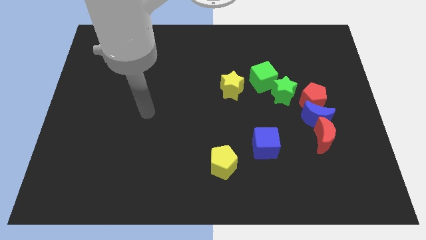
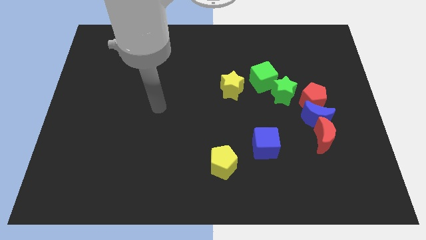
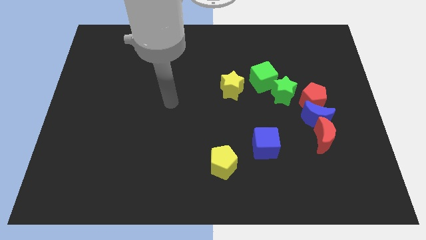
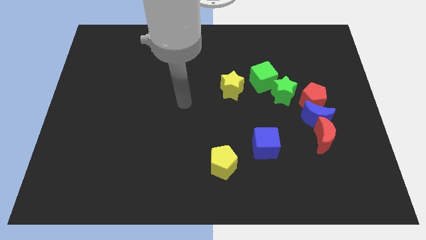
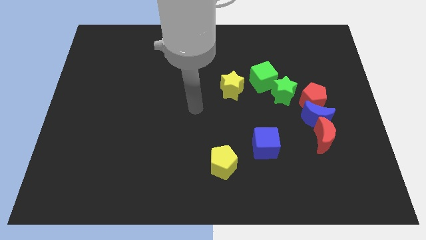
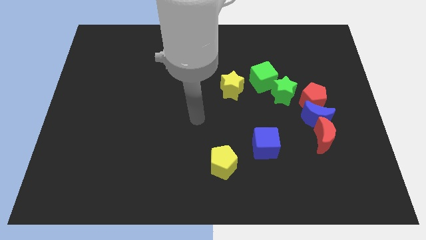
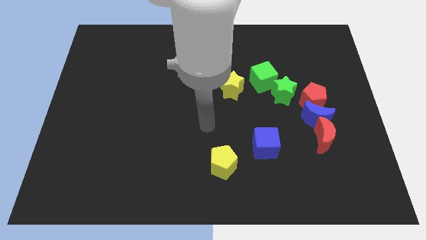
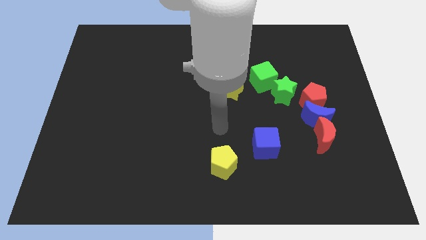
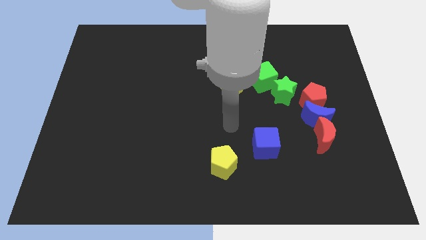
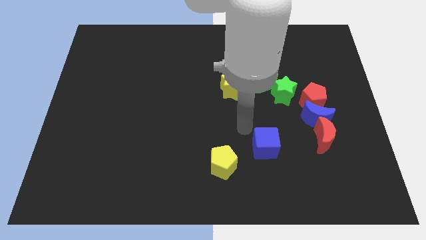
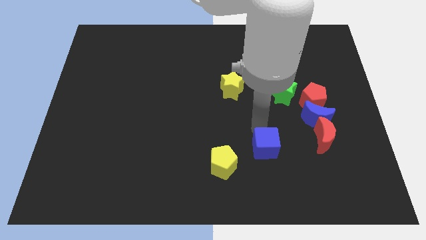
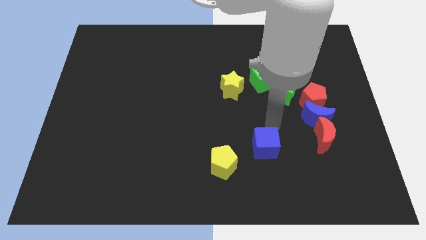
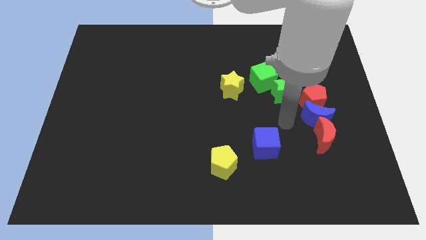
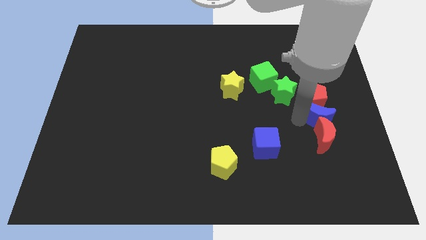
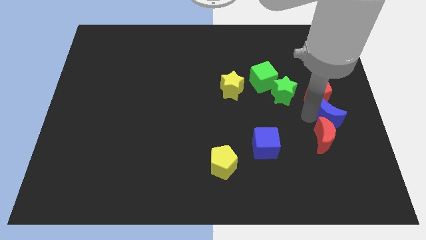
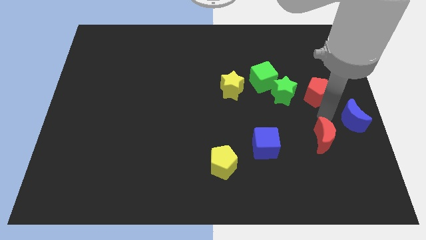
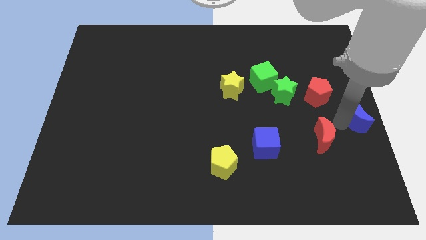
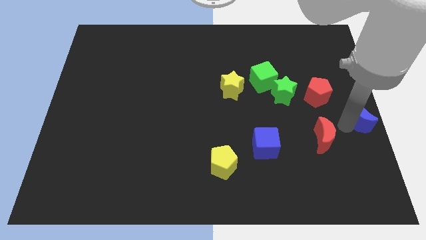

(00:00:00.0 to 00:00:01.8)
separate the red moon from the blue moon

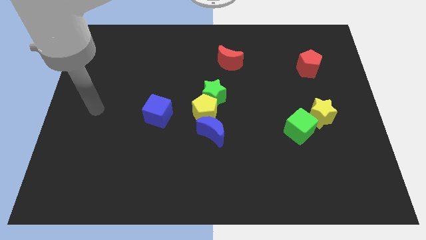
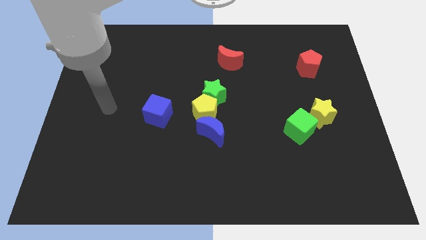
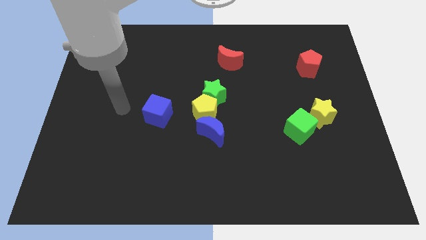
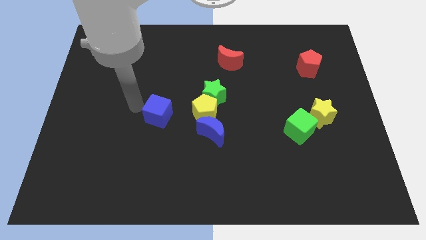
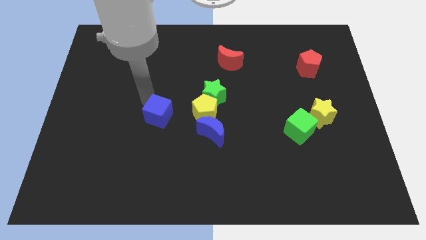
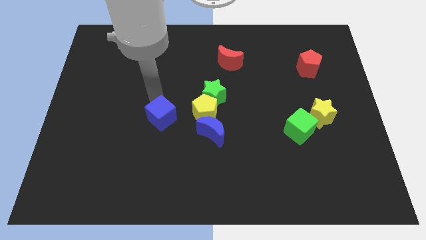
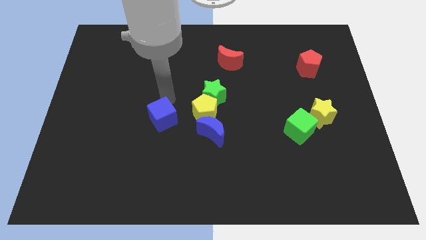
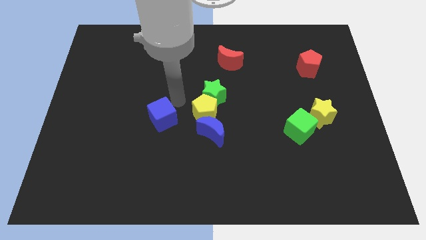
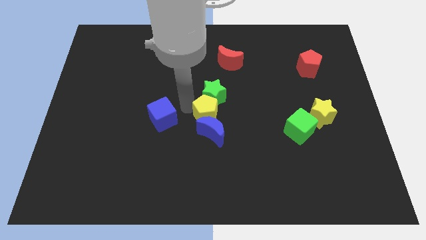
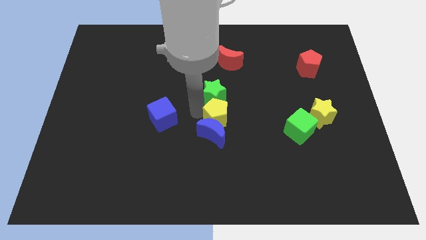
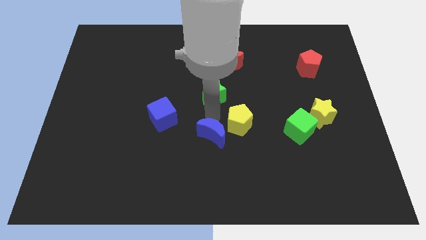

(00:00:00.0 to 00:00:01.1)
move the green star away from the yellow pentagon

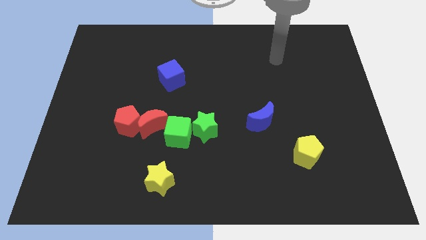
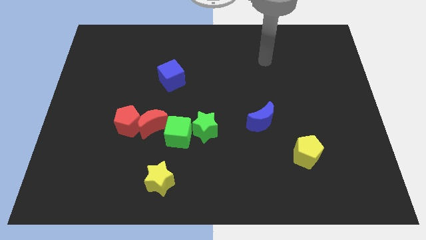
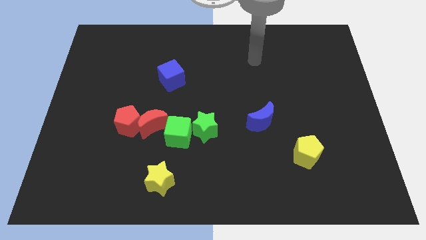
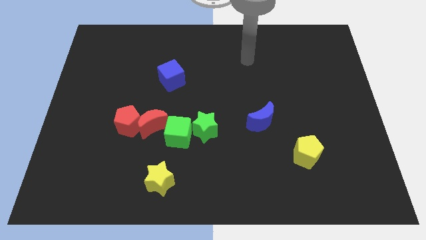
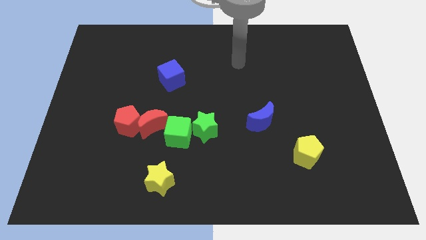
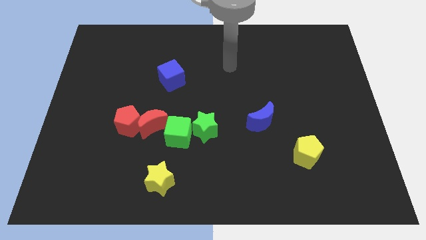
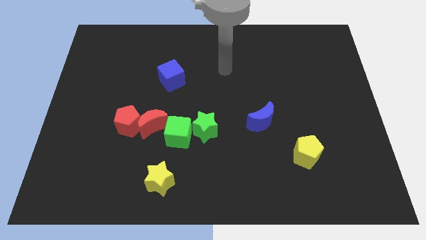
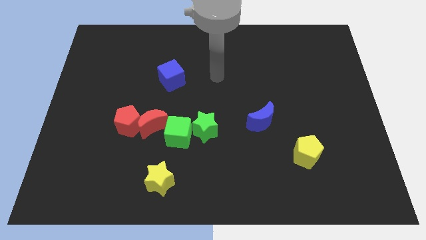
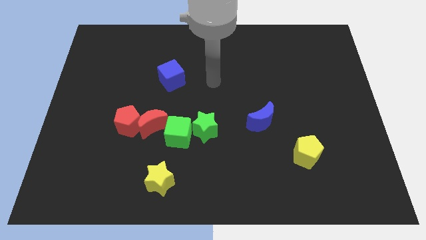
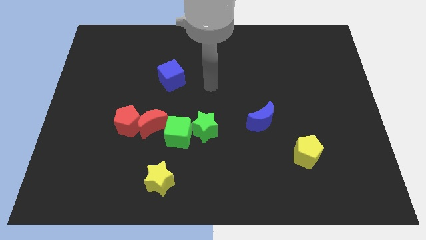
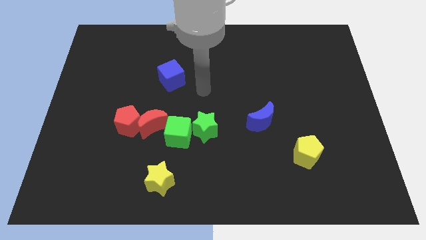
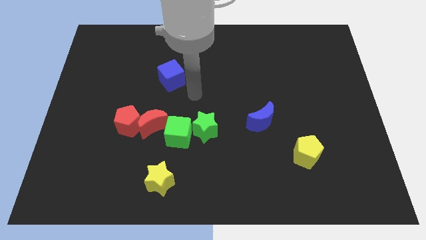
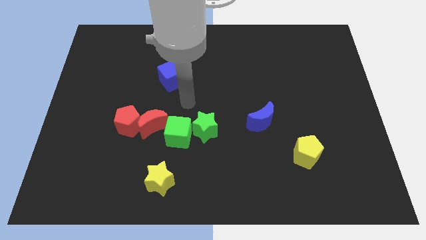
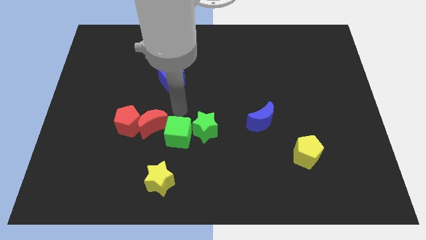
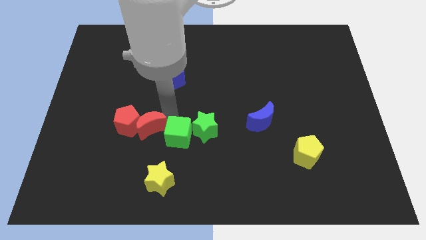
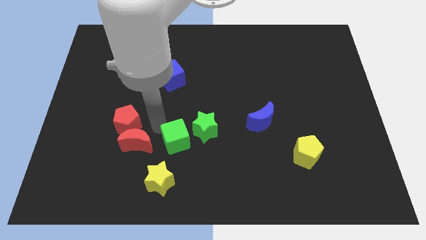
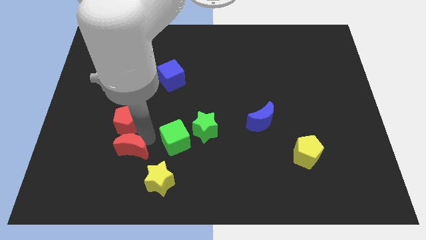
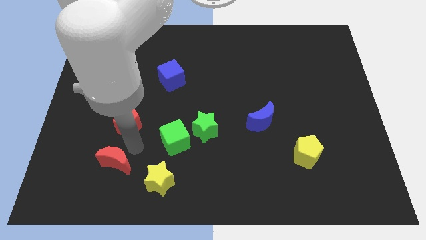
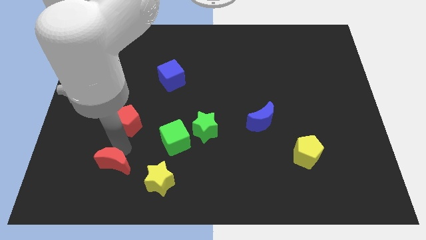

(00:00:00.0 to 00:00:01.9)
separate the red pentagon from the red moon

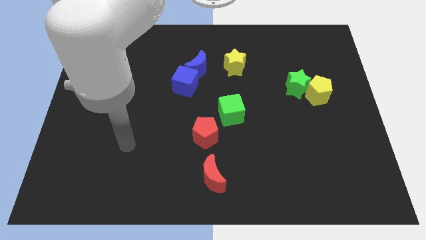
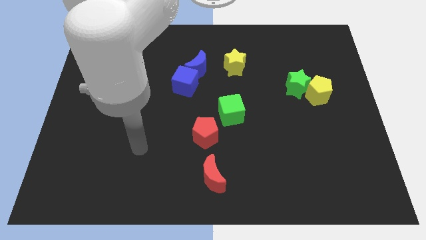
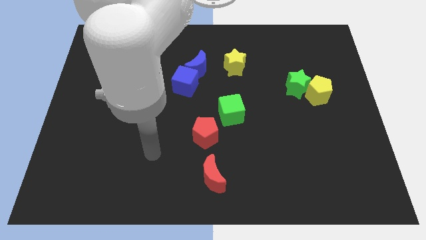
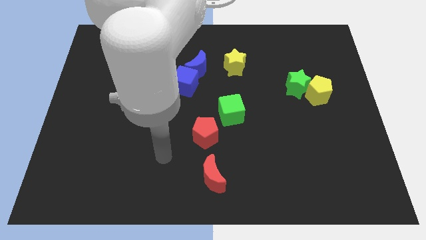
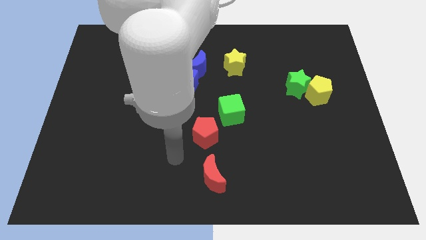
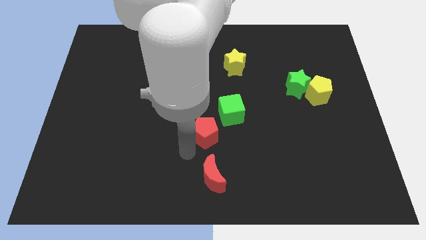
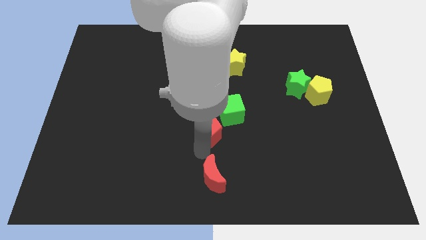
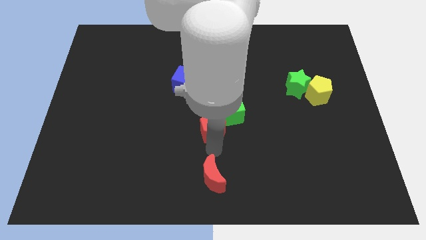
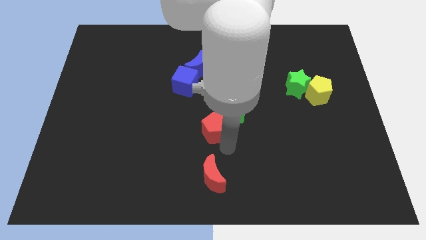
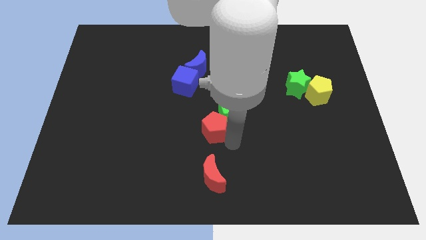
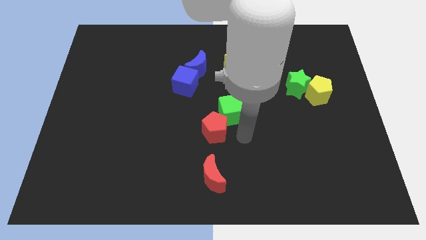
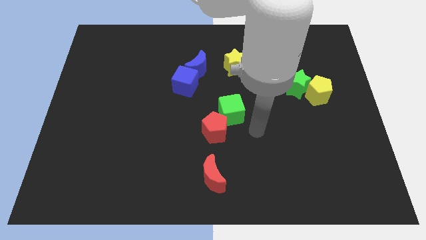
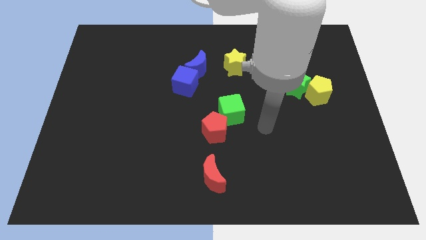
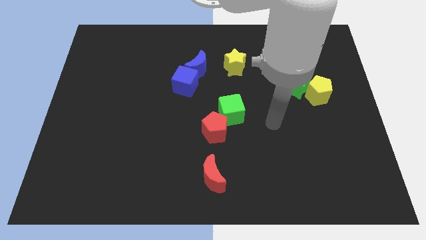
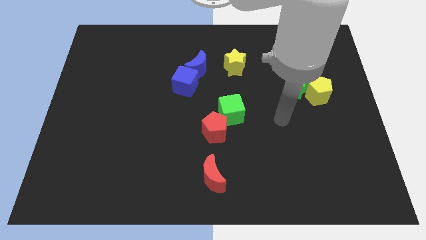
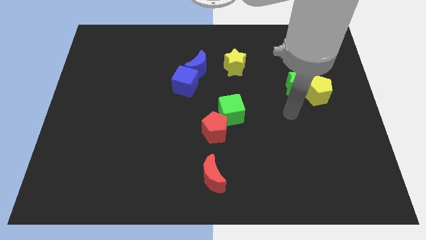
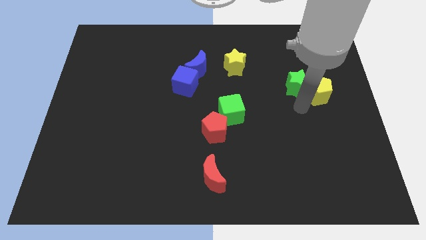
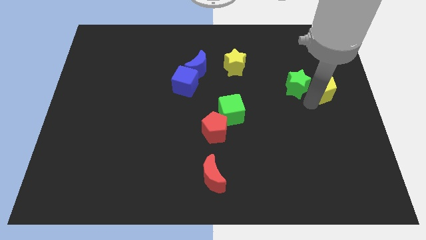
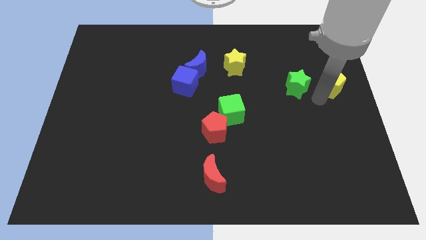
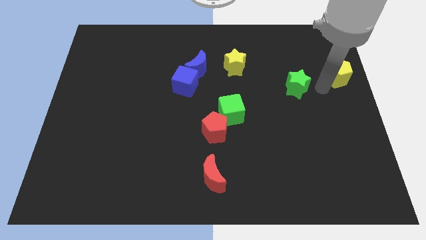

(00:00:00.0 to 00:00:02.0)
separate the green star from the yellow pentagon

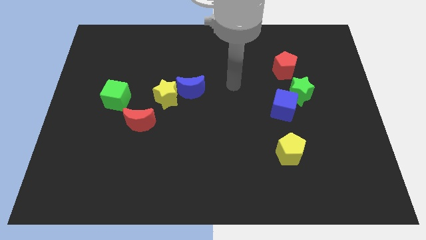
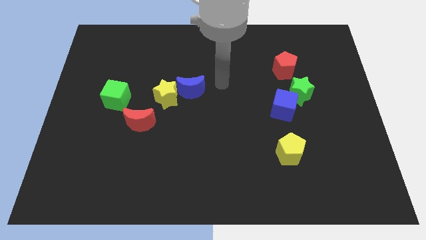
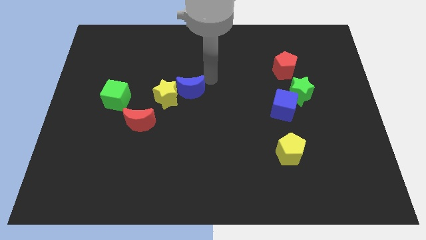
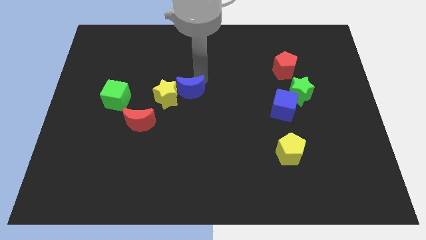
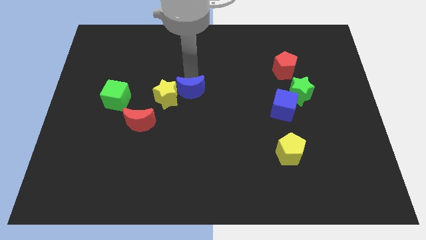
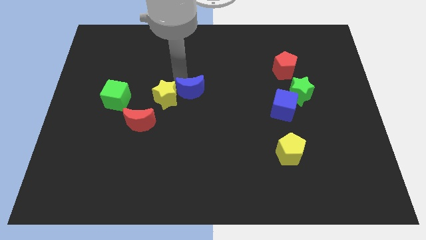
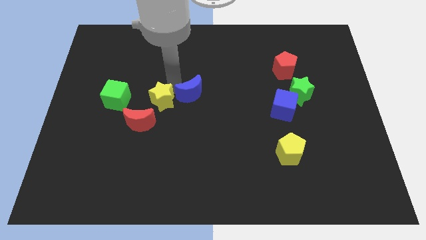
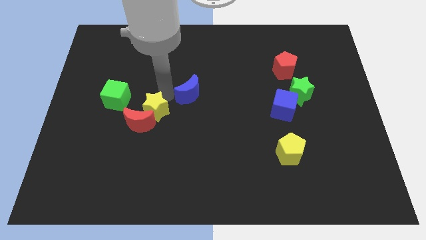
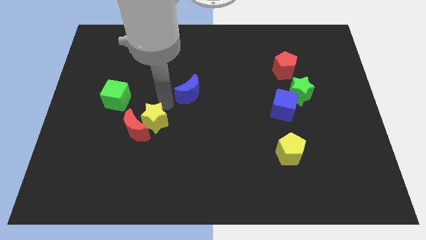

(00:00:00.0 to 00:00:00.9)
move the blue moon away from the yellow star

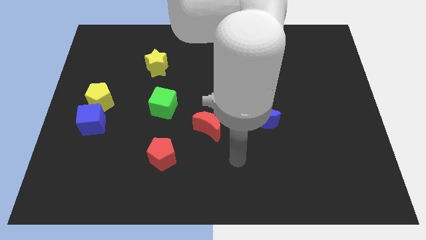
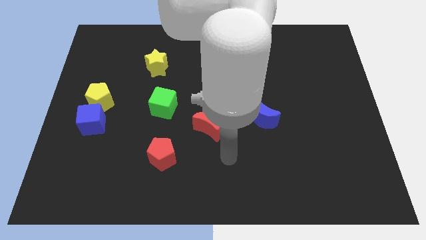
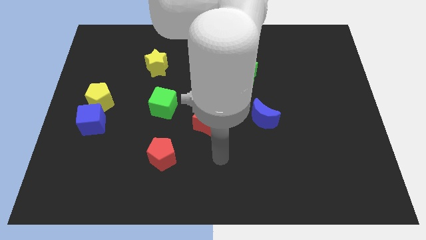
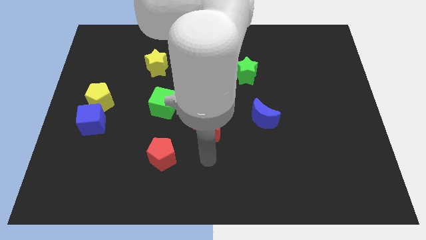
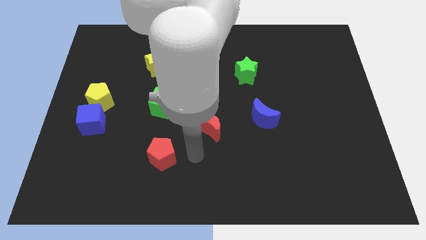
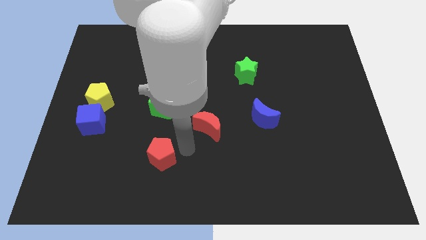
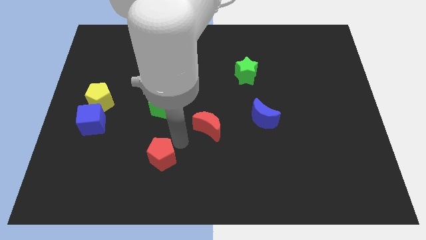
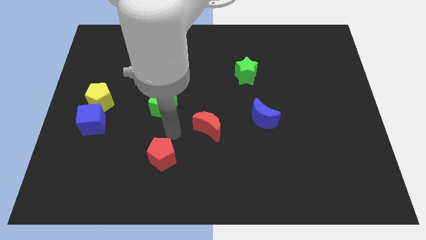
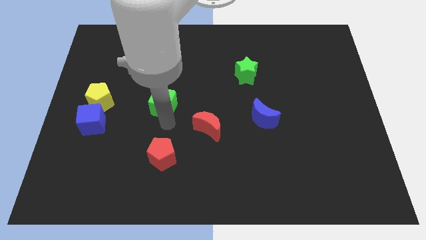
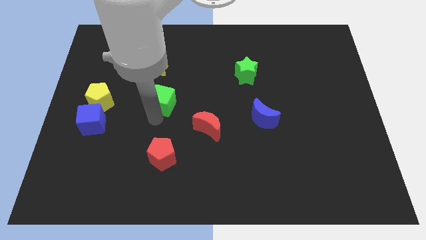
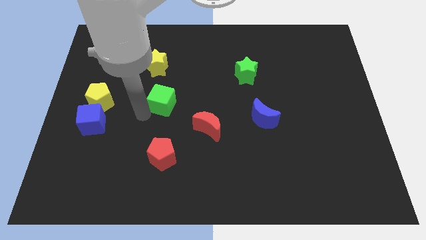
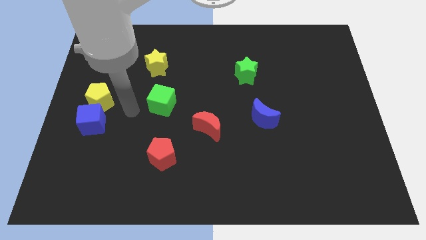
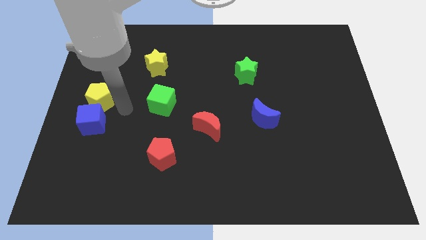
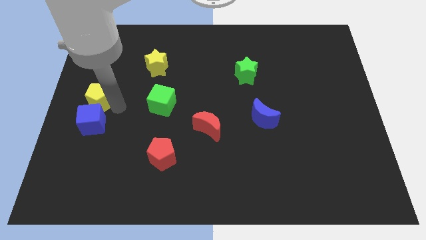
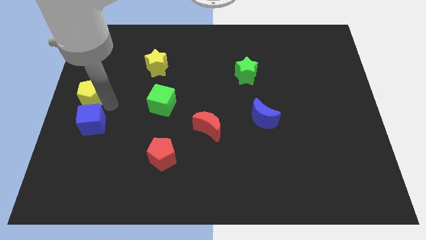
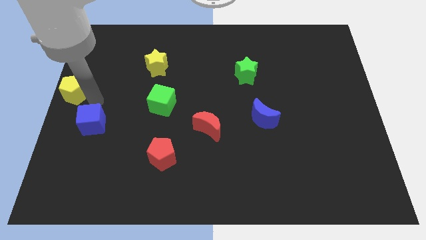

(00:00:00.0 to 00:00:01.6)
pull the blue cube apart from the yellow pentagon
